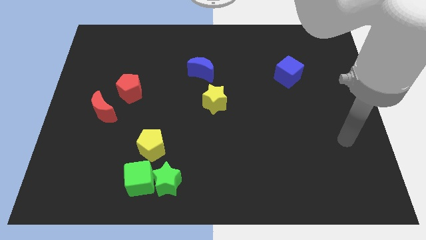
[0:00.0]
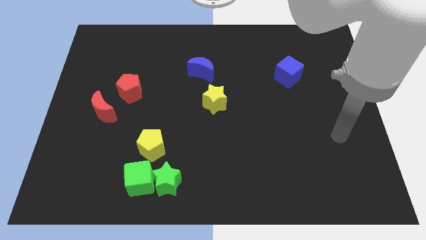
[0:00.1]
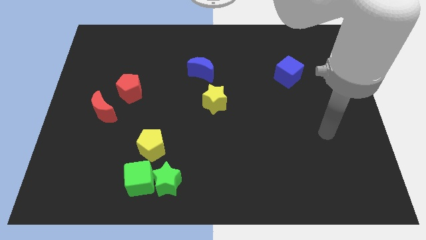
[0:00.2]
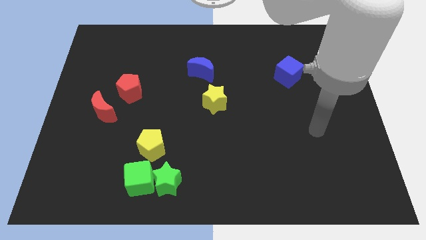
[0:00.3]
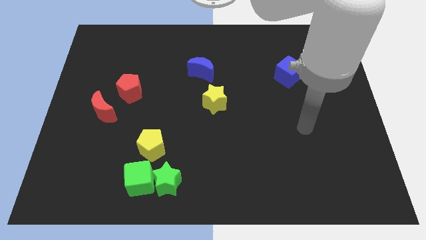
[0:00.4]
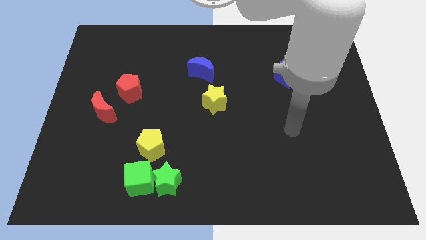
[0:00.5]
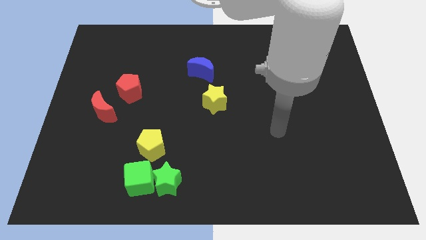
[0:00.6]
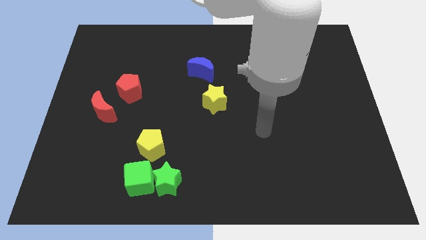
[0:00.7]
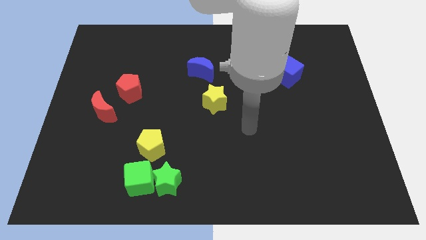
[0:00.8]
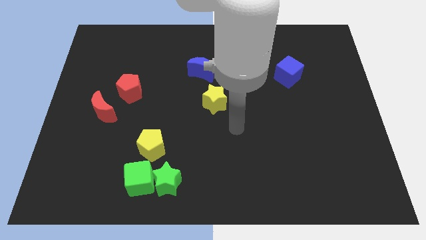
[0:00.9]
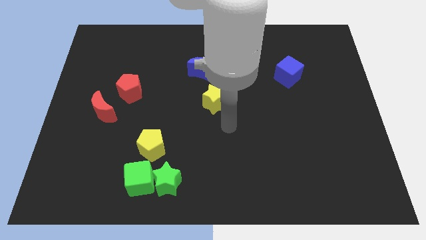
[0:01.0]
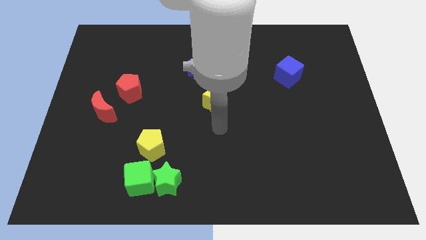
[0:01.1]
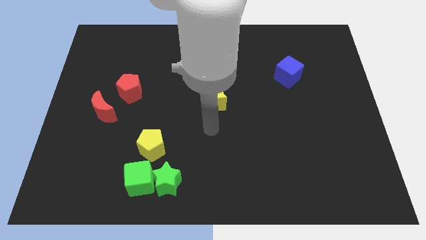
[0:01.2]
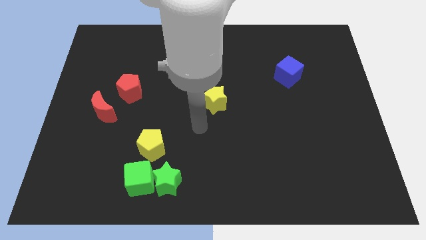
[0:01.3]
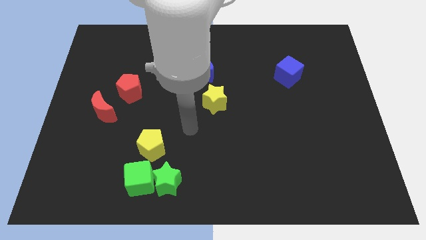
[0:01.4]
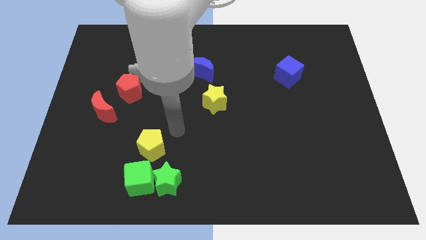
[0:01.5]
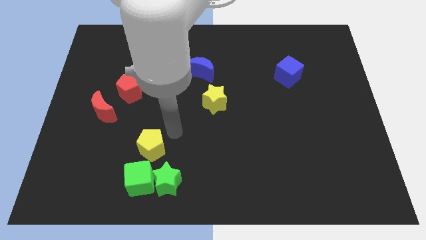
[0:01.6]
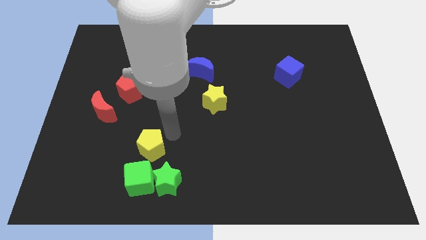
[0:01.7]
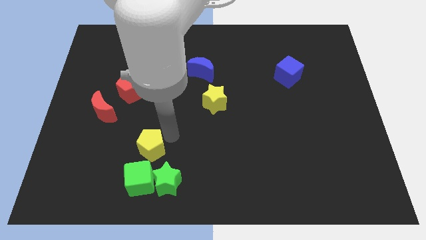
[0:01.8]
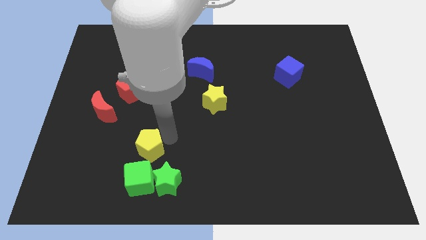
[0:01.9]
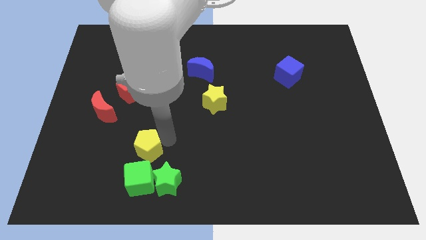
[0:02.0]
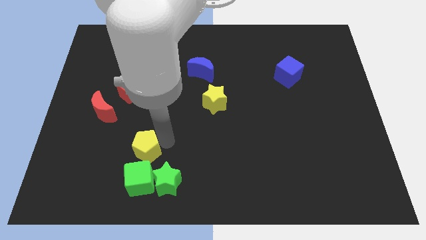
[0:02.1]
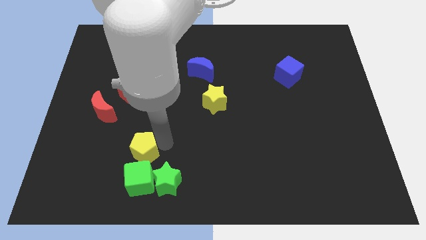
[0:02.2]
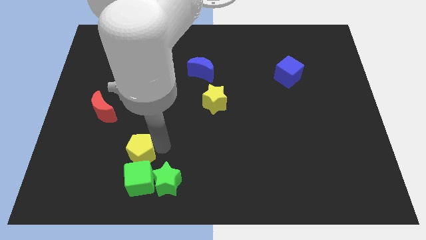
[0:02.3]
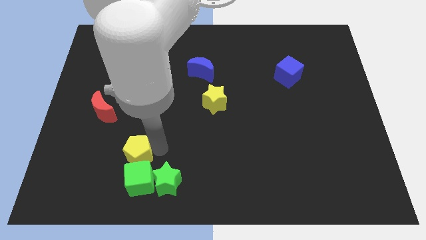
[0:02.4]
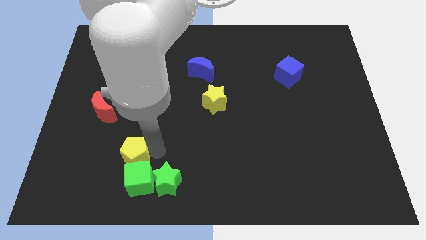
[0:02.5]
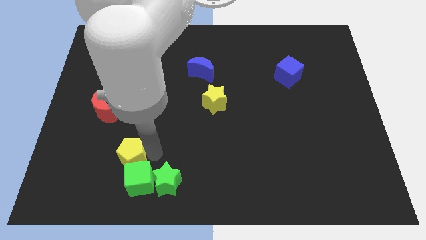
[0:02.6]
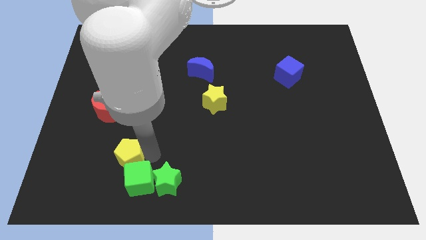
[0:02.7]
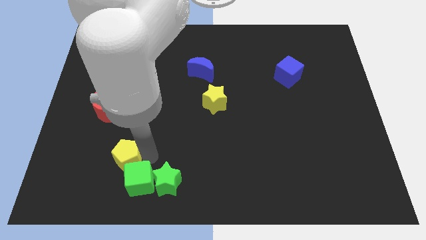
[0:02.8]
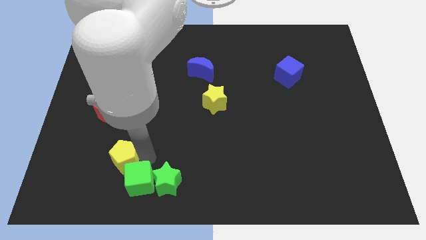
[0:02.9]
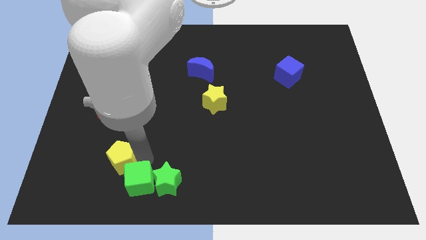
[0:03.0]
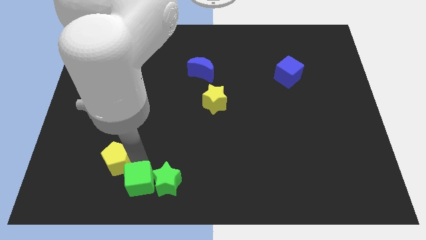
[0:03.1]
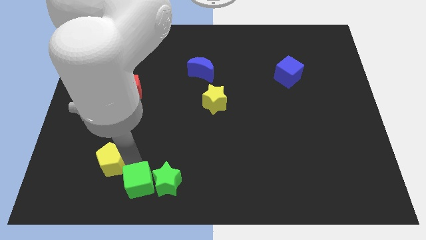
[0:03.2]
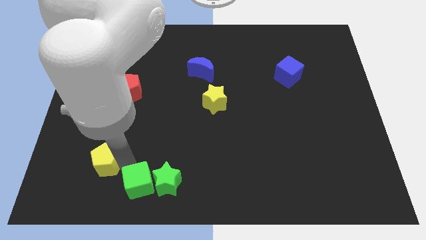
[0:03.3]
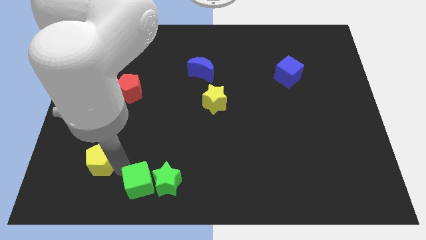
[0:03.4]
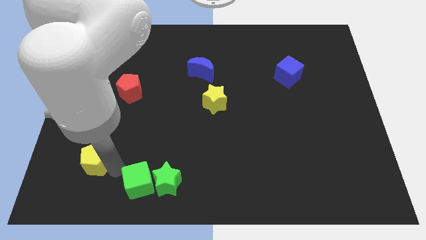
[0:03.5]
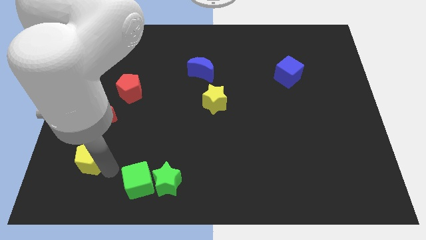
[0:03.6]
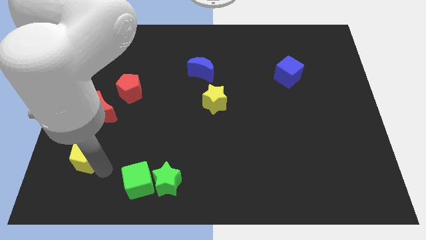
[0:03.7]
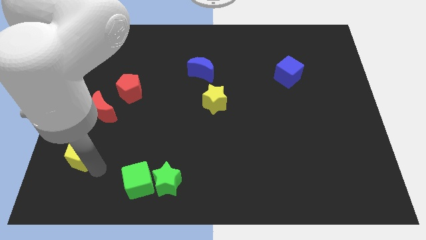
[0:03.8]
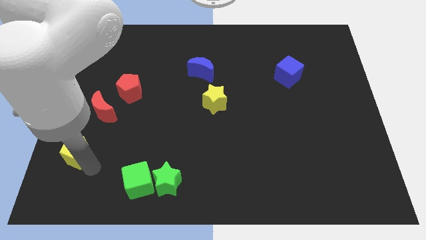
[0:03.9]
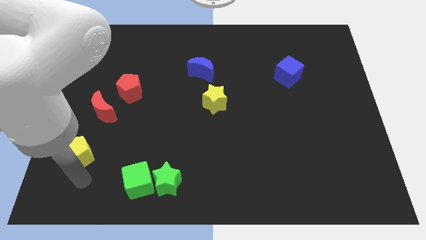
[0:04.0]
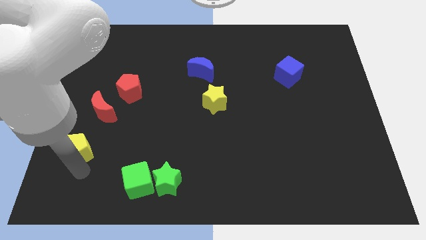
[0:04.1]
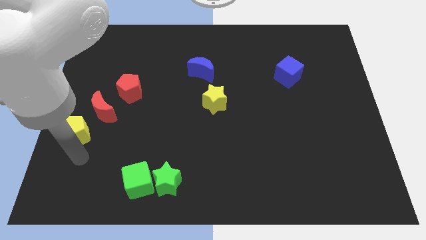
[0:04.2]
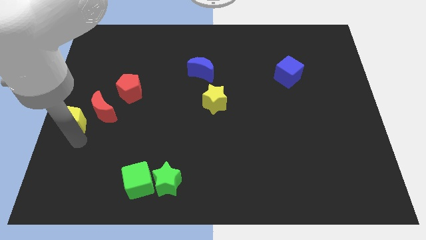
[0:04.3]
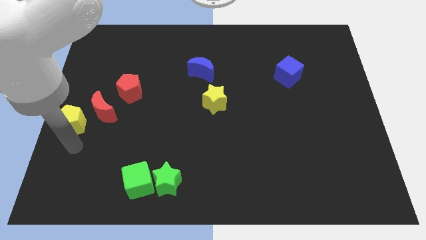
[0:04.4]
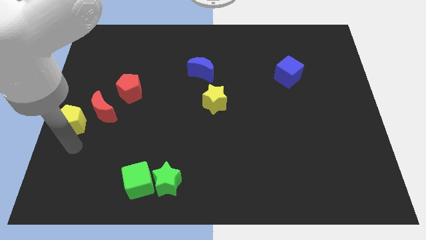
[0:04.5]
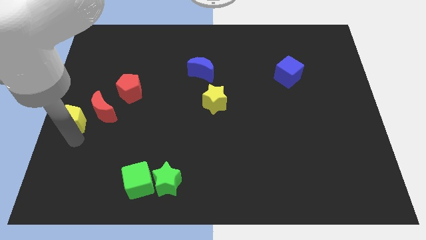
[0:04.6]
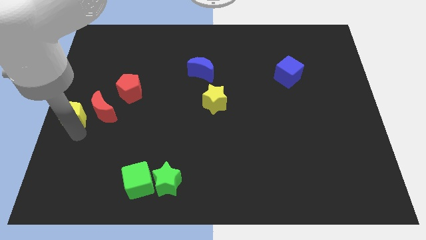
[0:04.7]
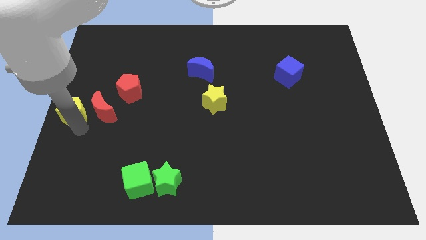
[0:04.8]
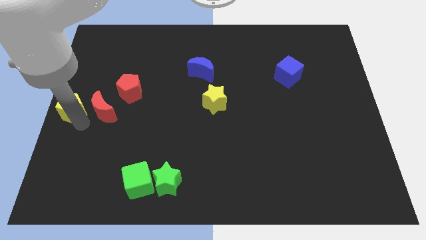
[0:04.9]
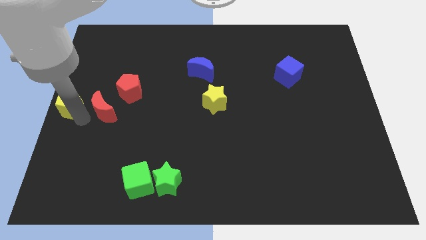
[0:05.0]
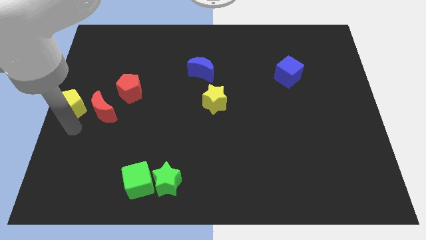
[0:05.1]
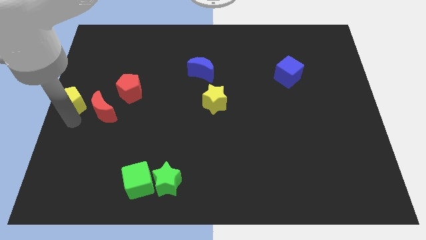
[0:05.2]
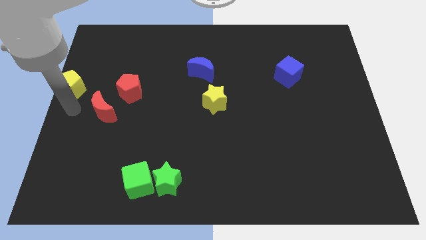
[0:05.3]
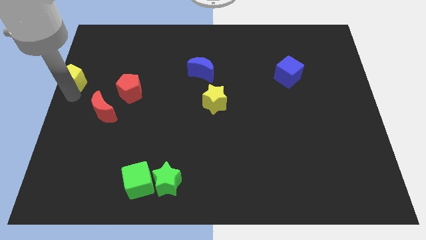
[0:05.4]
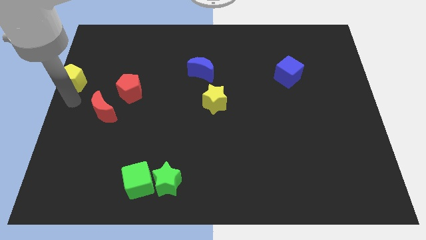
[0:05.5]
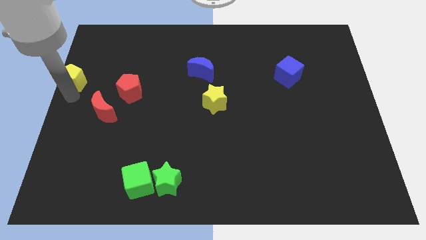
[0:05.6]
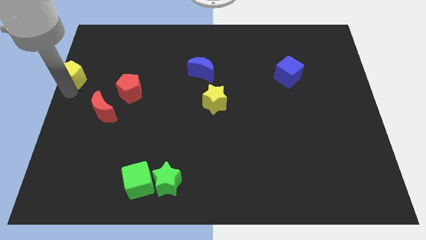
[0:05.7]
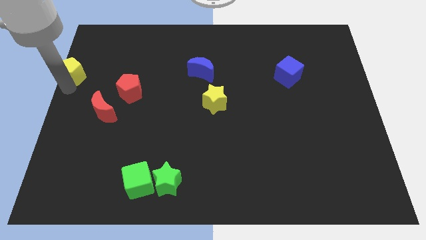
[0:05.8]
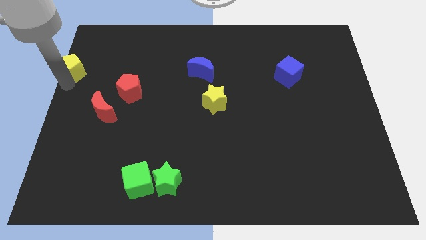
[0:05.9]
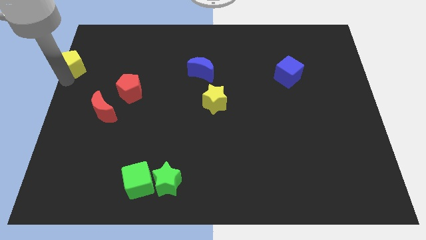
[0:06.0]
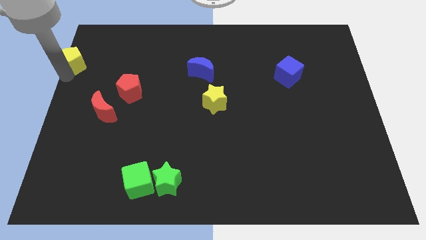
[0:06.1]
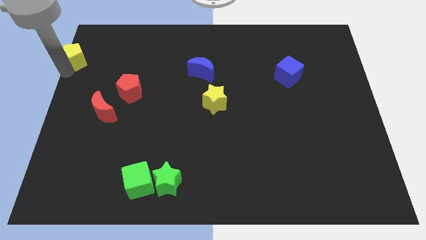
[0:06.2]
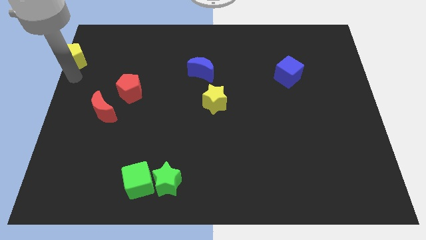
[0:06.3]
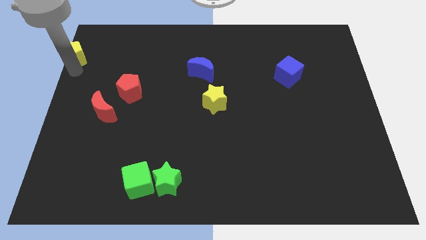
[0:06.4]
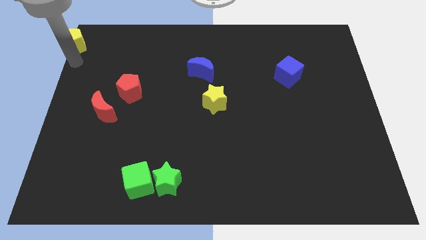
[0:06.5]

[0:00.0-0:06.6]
move the yellow pentagon to the top left
